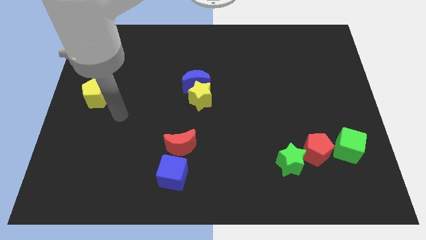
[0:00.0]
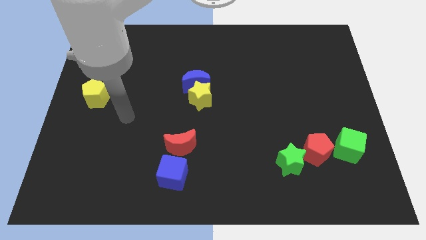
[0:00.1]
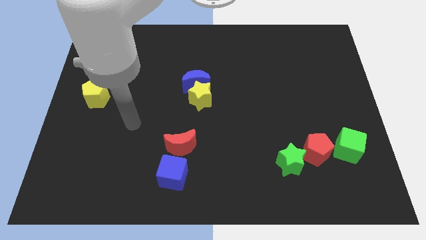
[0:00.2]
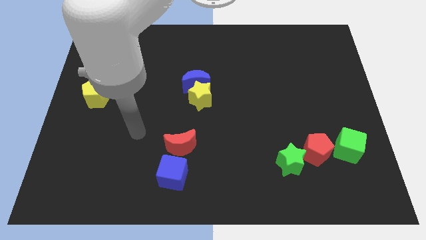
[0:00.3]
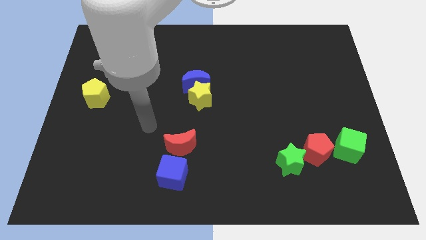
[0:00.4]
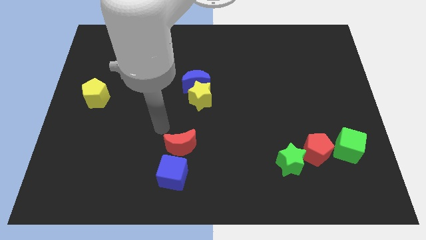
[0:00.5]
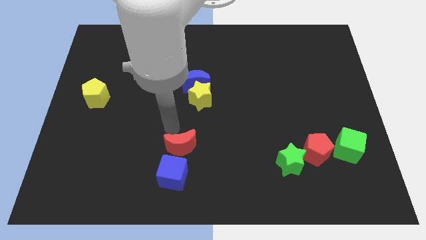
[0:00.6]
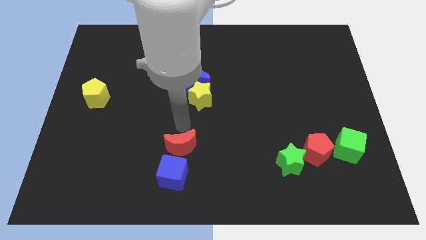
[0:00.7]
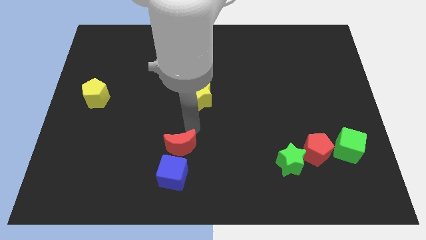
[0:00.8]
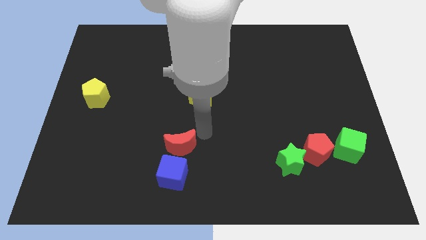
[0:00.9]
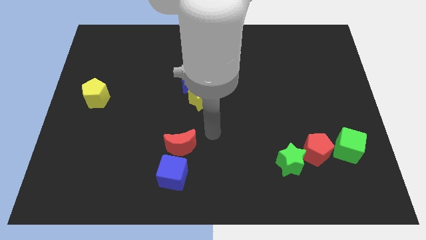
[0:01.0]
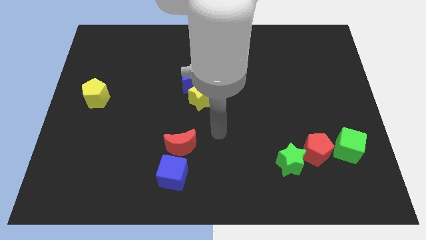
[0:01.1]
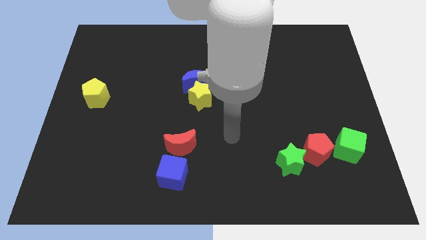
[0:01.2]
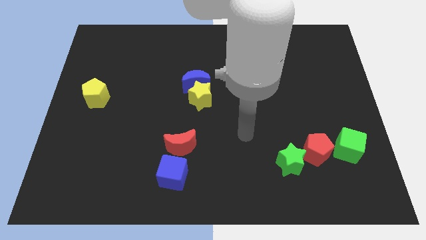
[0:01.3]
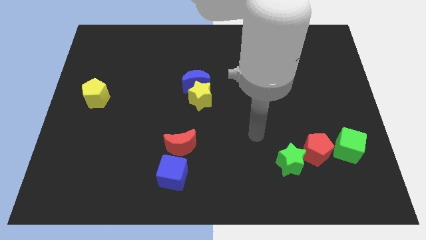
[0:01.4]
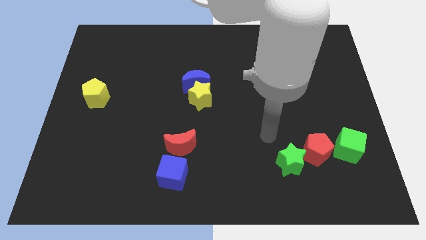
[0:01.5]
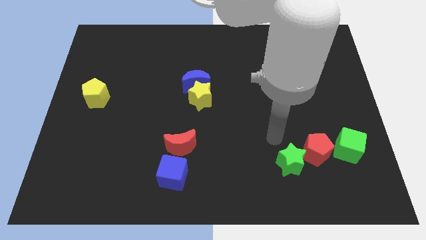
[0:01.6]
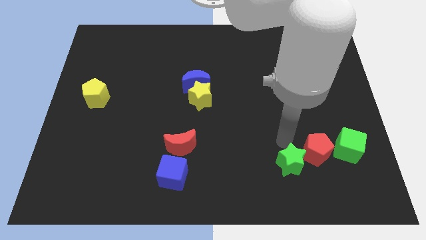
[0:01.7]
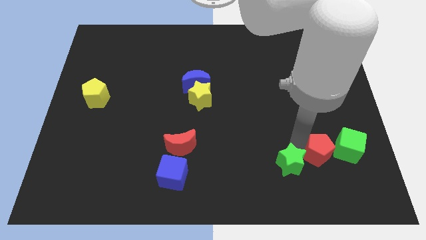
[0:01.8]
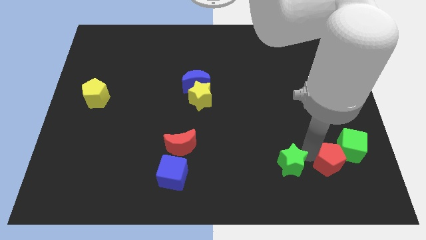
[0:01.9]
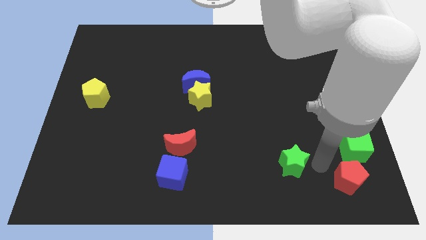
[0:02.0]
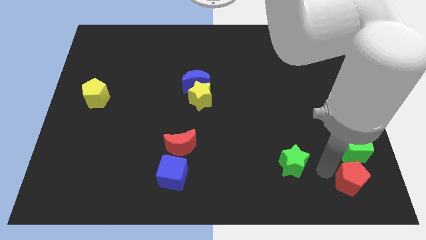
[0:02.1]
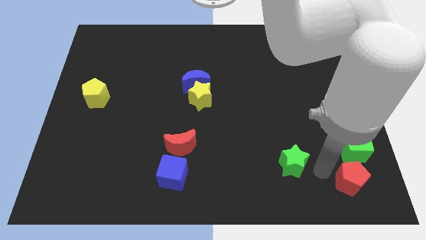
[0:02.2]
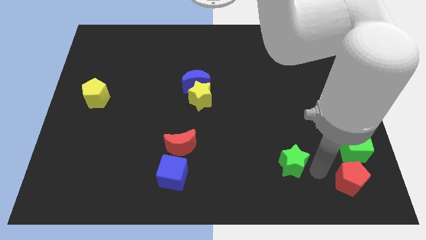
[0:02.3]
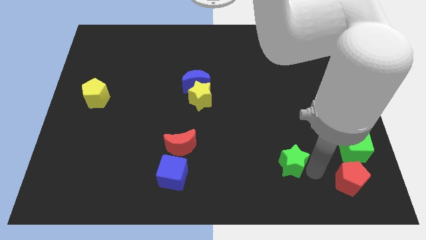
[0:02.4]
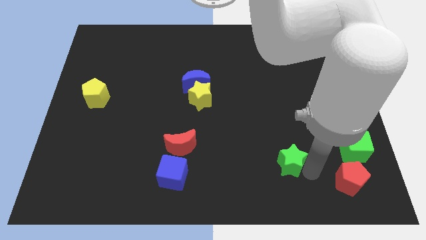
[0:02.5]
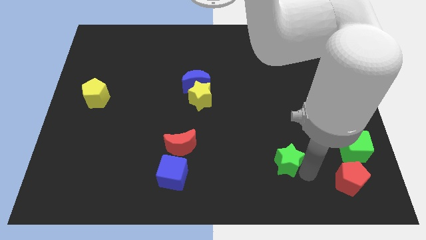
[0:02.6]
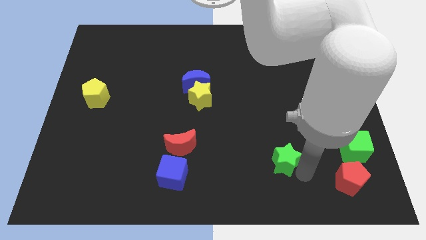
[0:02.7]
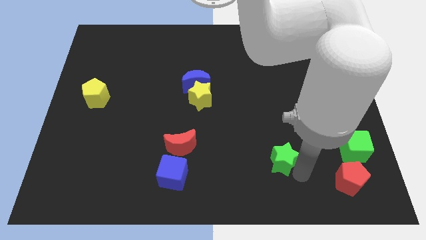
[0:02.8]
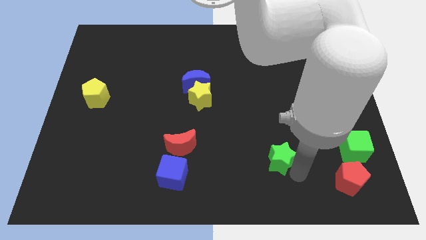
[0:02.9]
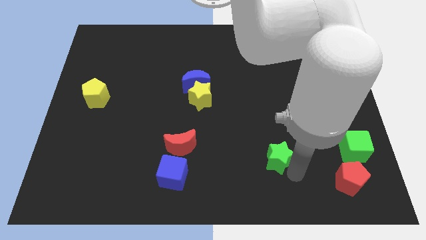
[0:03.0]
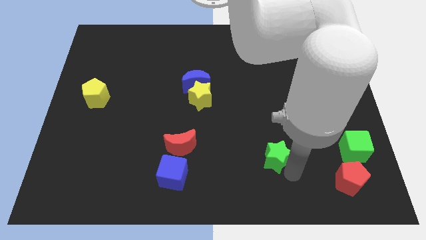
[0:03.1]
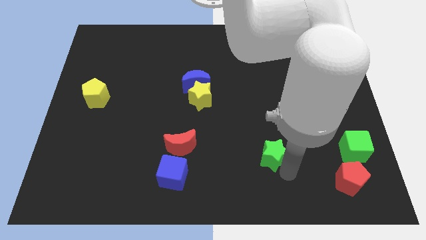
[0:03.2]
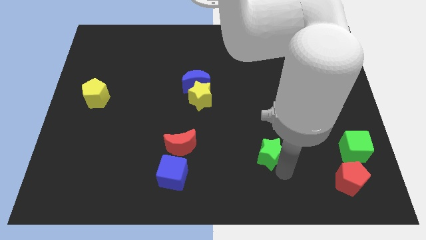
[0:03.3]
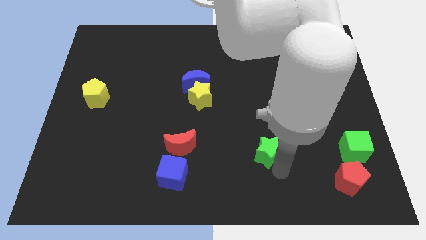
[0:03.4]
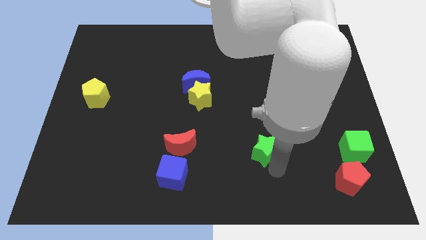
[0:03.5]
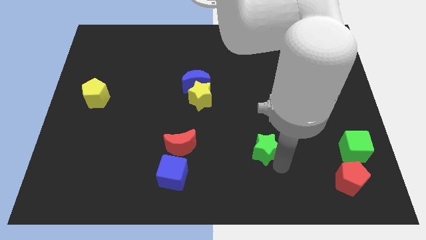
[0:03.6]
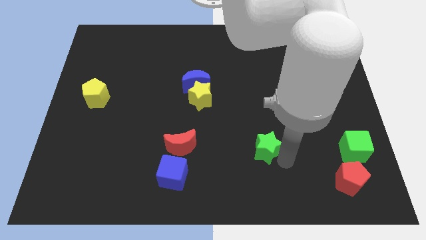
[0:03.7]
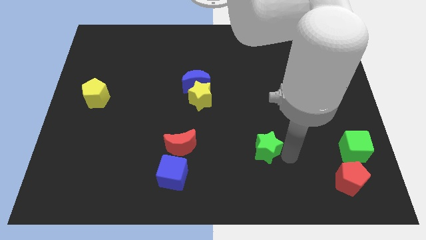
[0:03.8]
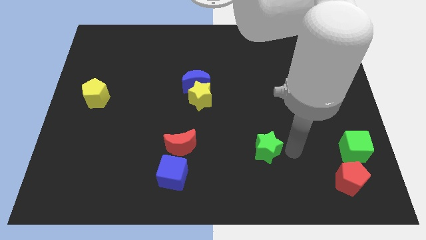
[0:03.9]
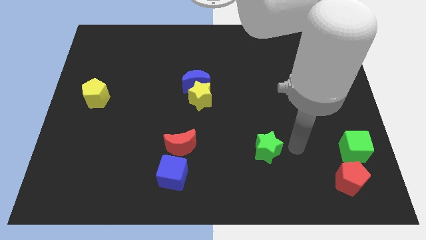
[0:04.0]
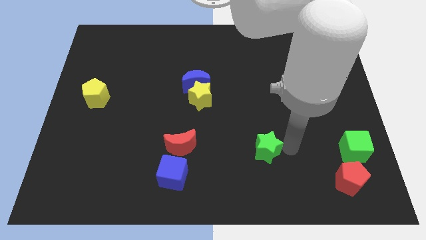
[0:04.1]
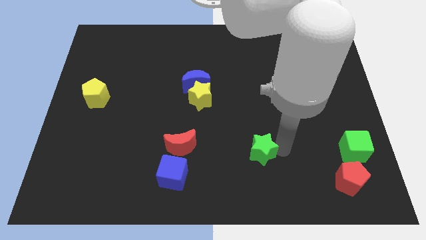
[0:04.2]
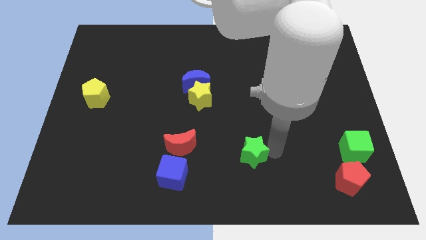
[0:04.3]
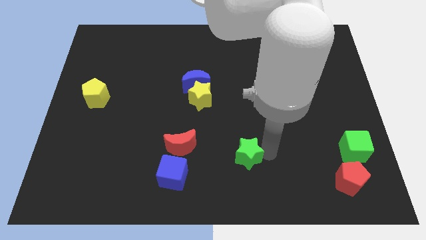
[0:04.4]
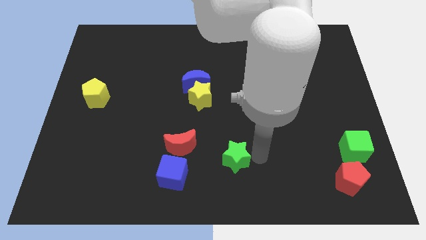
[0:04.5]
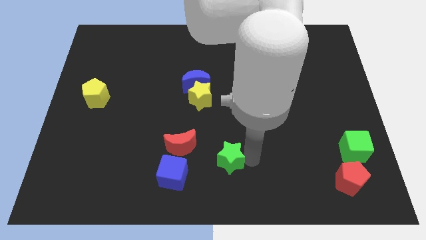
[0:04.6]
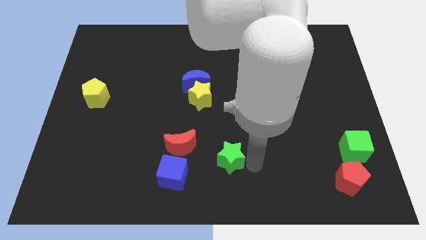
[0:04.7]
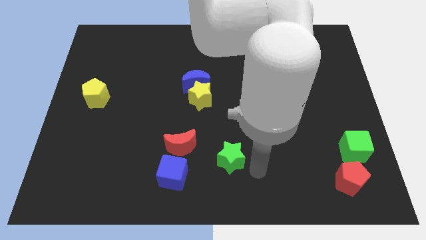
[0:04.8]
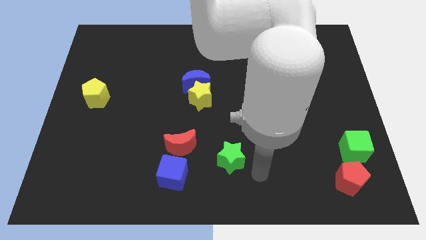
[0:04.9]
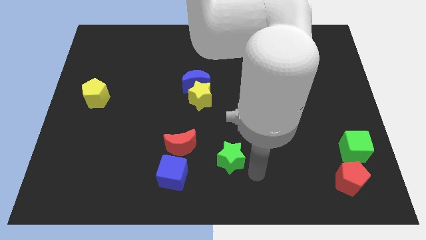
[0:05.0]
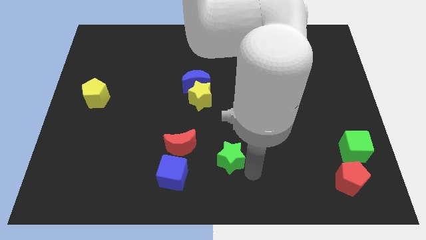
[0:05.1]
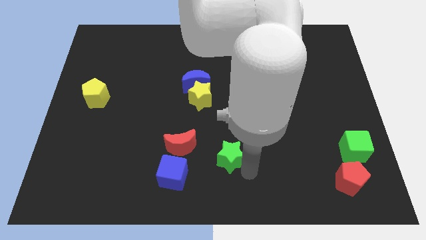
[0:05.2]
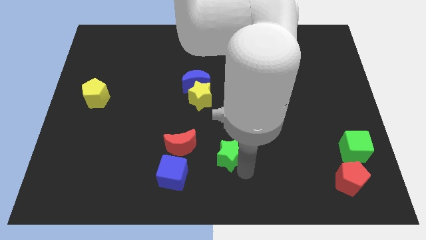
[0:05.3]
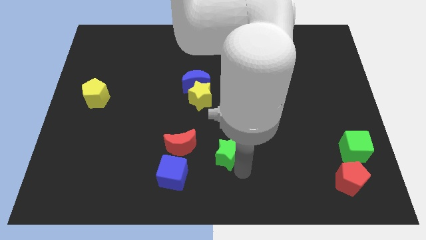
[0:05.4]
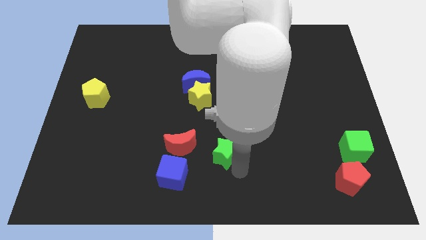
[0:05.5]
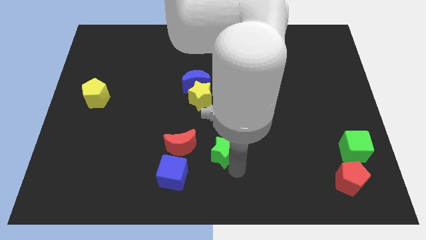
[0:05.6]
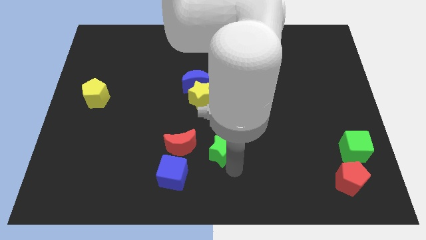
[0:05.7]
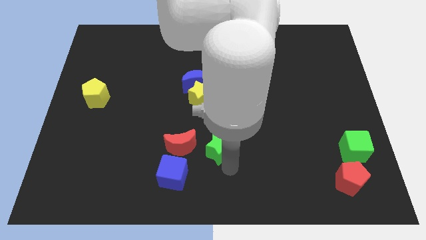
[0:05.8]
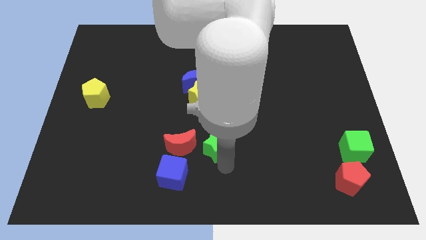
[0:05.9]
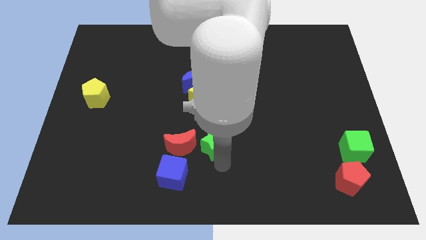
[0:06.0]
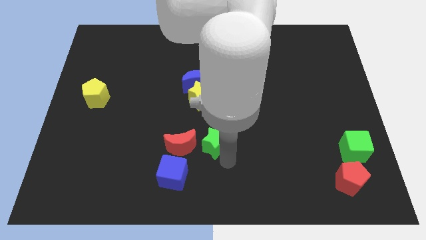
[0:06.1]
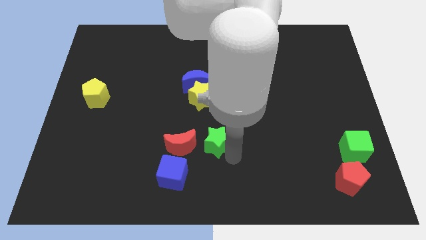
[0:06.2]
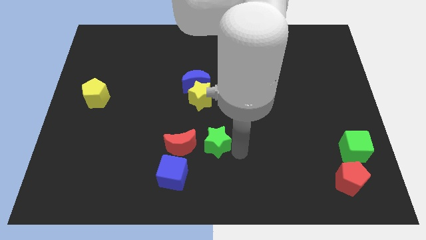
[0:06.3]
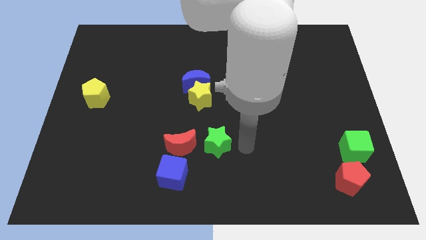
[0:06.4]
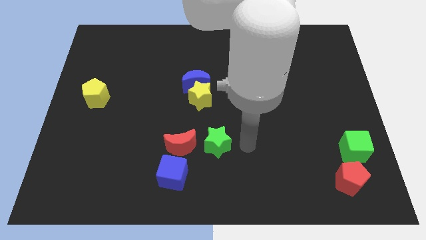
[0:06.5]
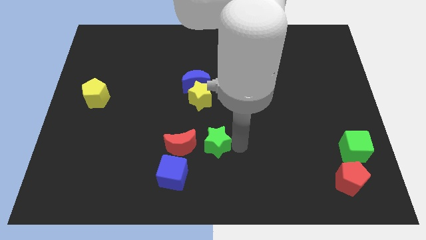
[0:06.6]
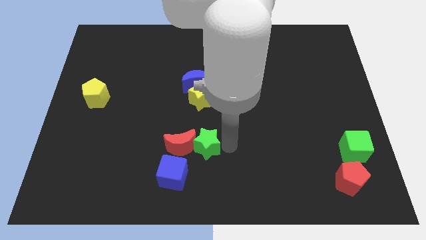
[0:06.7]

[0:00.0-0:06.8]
put the green star next to the red moon

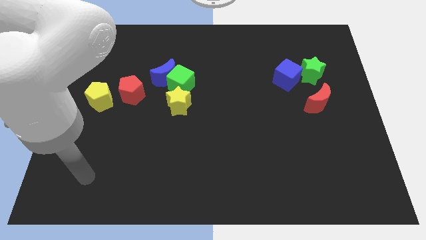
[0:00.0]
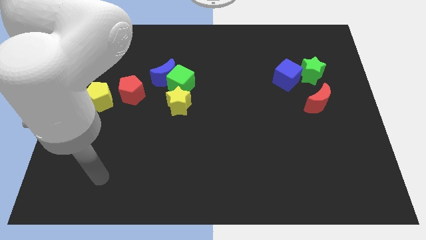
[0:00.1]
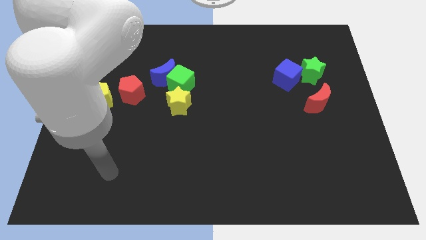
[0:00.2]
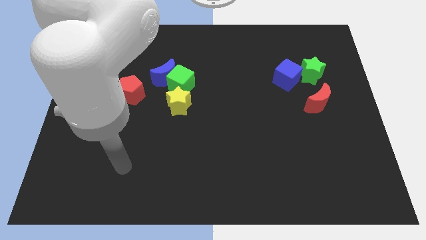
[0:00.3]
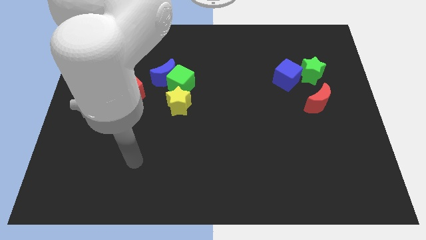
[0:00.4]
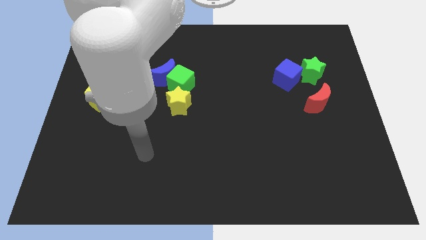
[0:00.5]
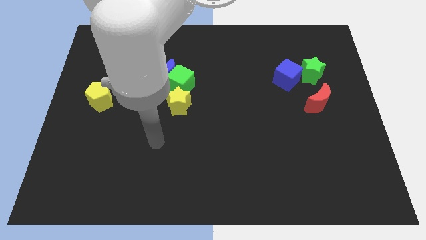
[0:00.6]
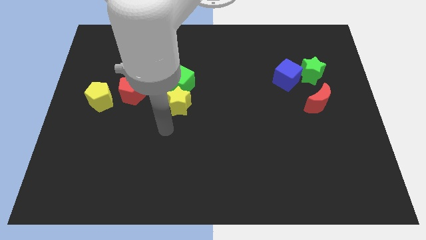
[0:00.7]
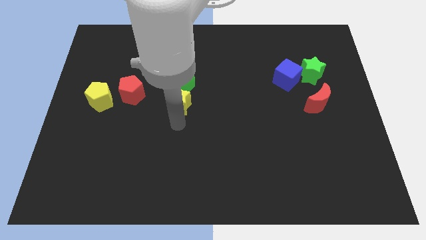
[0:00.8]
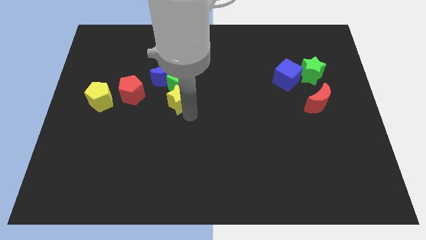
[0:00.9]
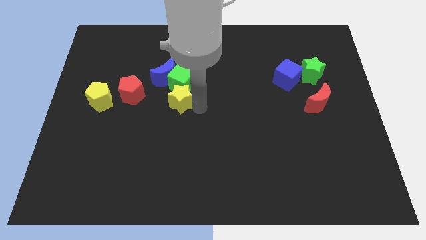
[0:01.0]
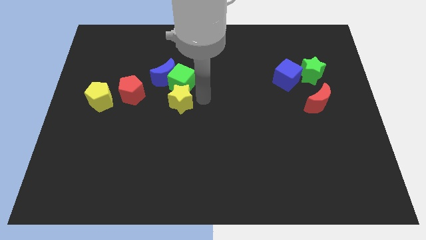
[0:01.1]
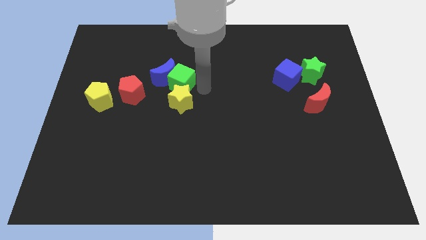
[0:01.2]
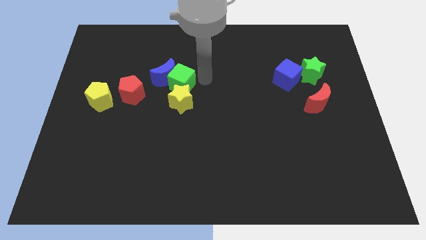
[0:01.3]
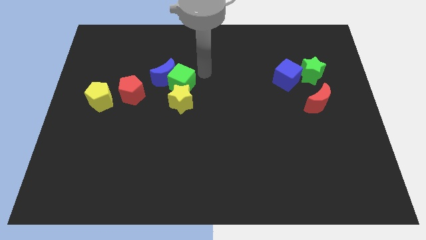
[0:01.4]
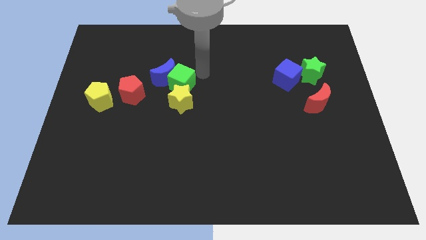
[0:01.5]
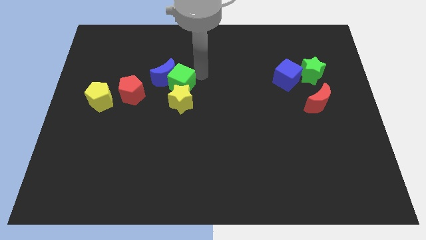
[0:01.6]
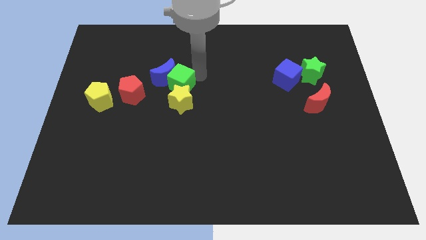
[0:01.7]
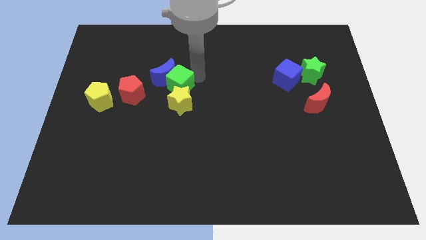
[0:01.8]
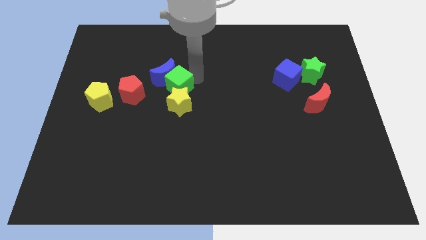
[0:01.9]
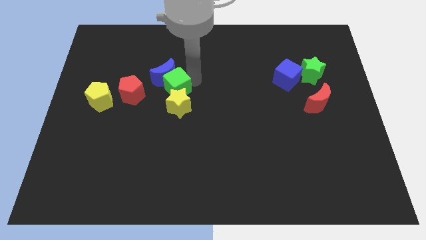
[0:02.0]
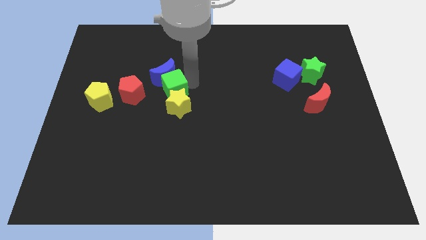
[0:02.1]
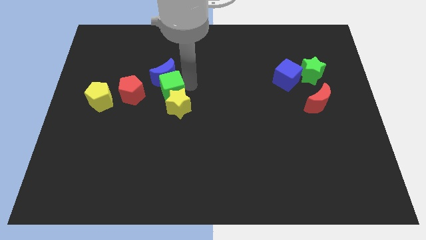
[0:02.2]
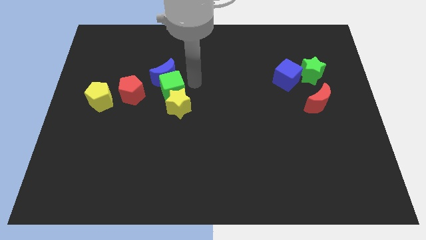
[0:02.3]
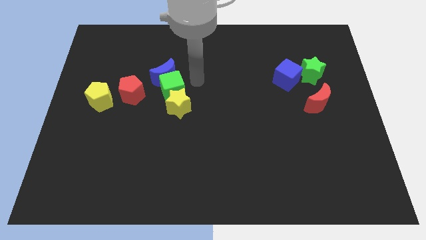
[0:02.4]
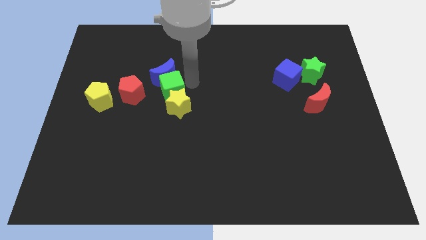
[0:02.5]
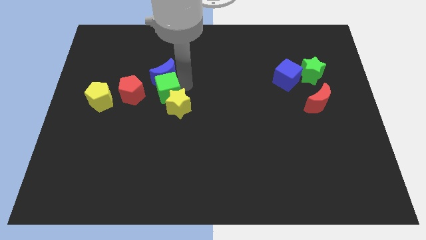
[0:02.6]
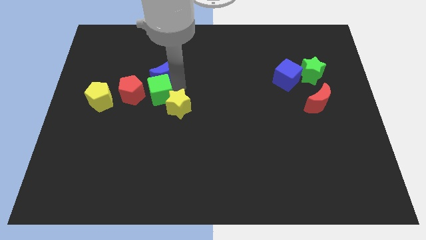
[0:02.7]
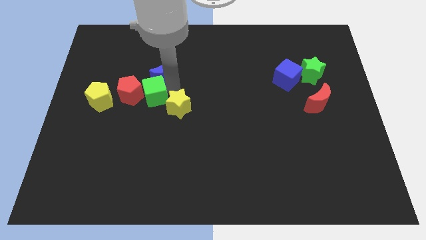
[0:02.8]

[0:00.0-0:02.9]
slide the green cube to the red pentagon
